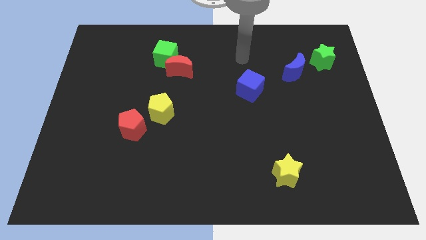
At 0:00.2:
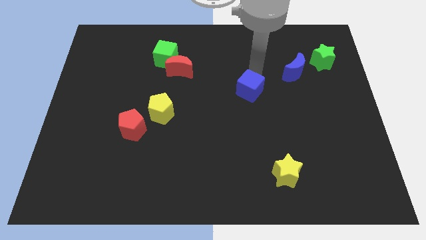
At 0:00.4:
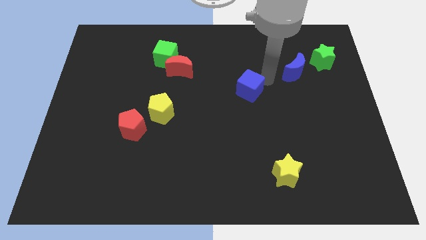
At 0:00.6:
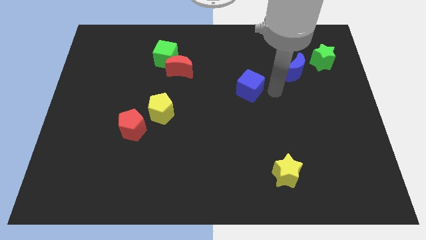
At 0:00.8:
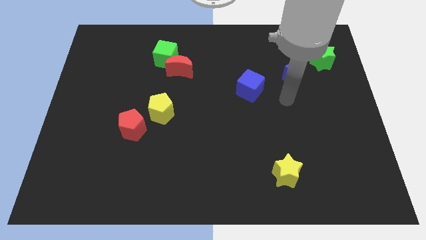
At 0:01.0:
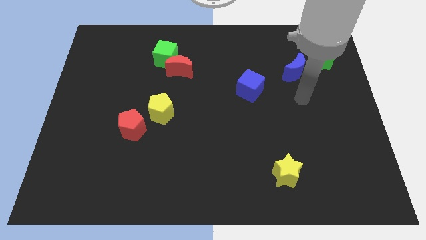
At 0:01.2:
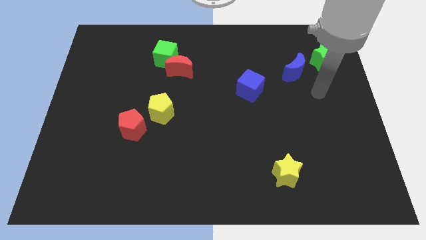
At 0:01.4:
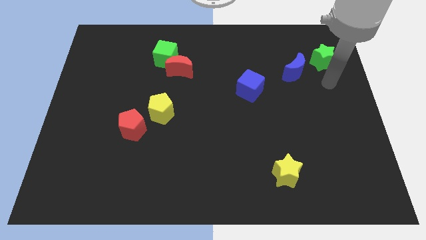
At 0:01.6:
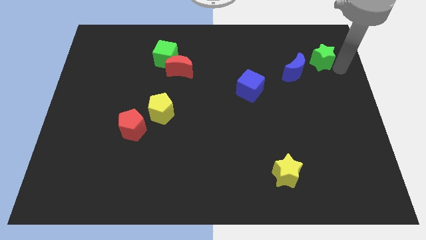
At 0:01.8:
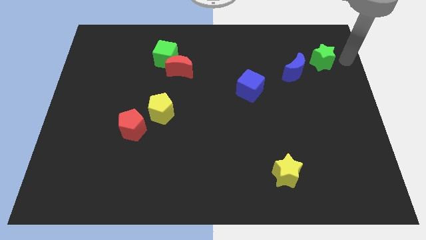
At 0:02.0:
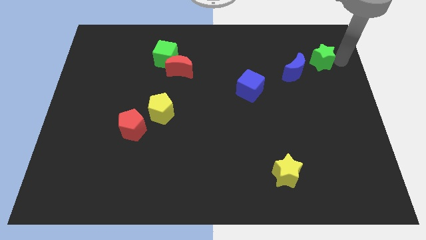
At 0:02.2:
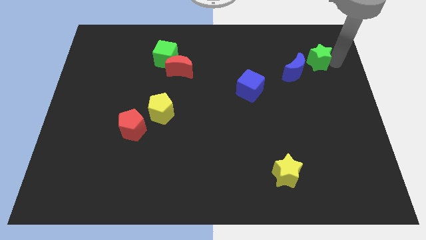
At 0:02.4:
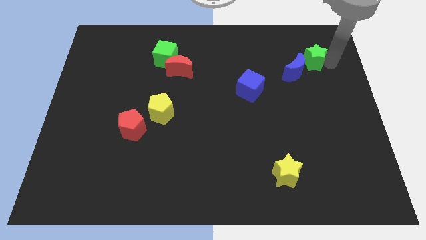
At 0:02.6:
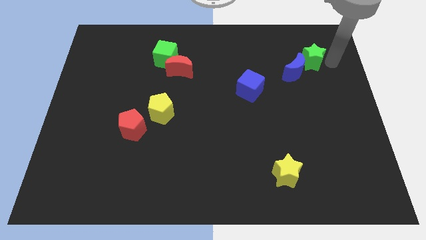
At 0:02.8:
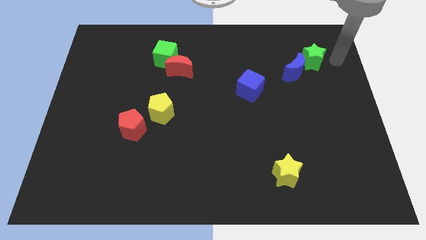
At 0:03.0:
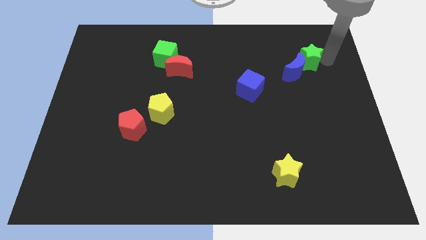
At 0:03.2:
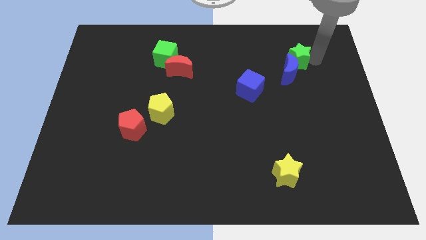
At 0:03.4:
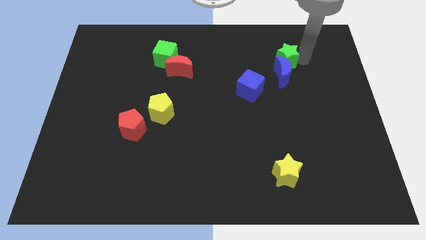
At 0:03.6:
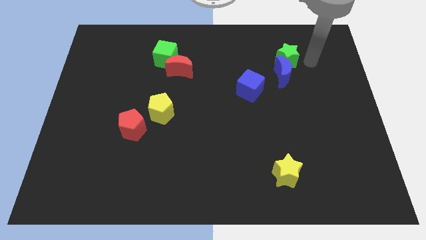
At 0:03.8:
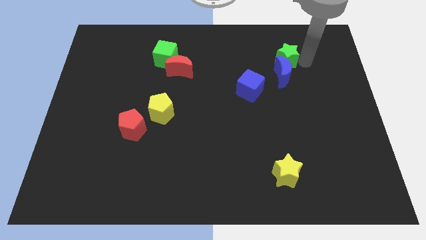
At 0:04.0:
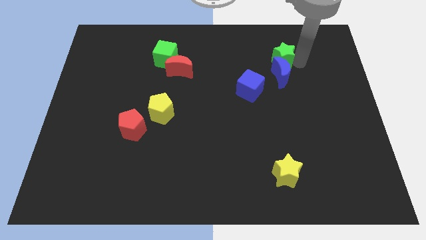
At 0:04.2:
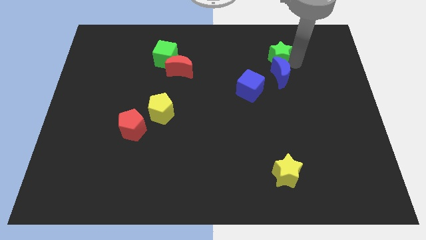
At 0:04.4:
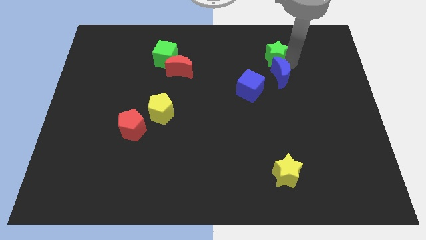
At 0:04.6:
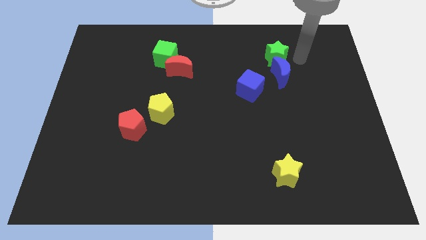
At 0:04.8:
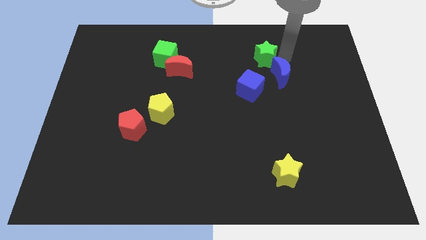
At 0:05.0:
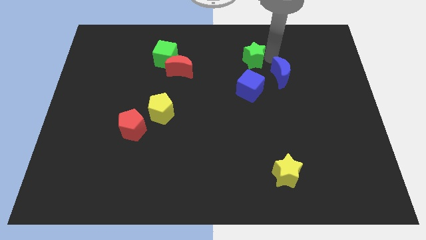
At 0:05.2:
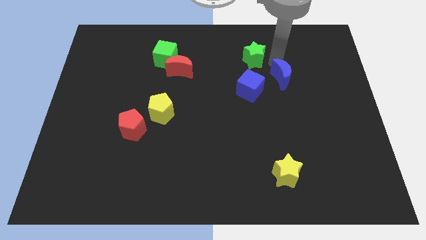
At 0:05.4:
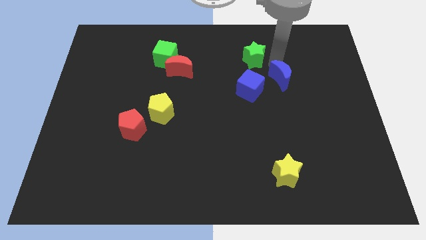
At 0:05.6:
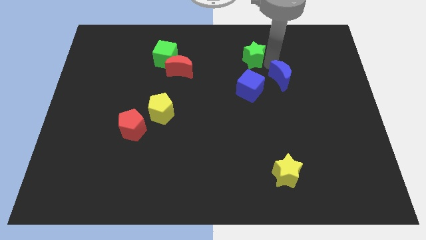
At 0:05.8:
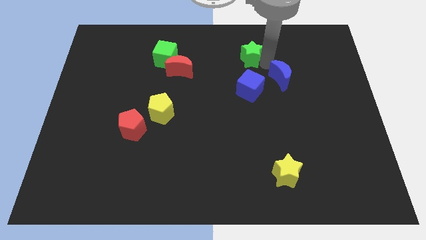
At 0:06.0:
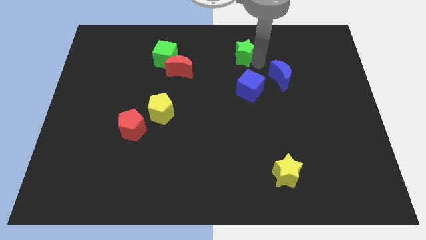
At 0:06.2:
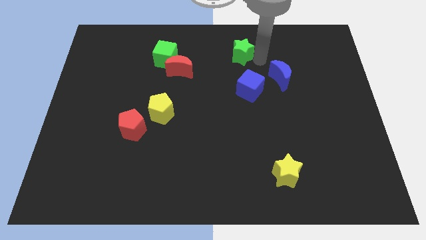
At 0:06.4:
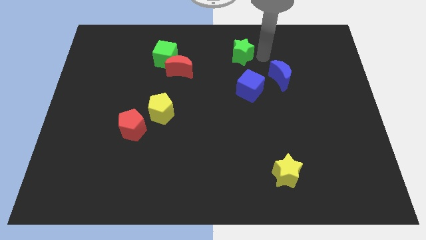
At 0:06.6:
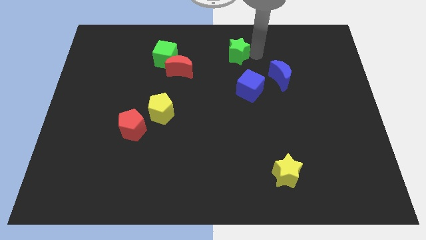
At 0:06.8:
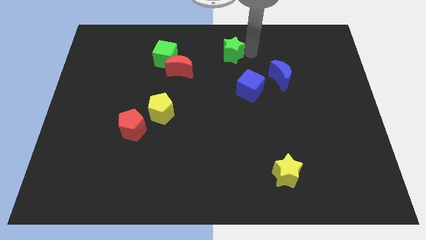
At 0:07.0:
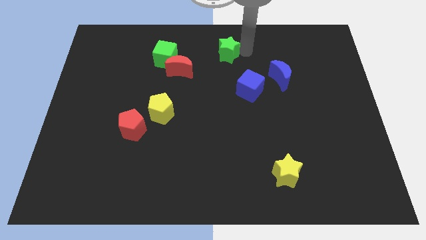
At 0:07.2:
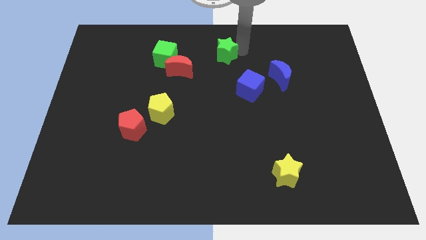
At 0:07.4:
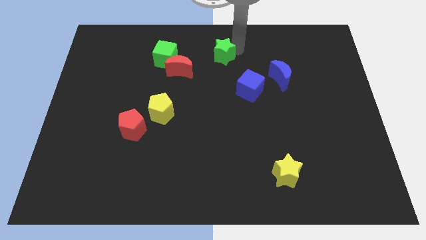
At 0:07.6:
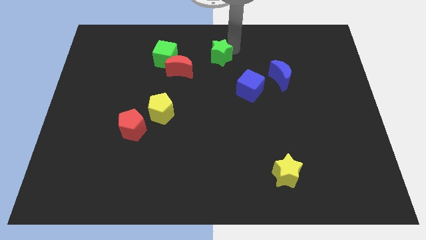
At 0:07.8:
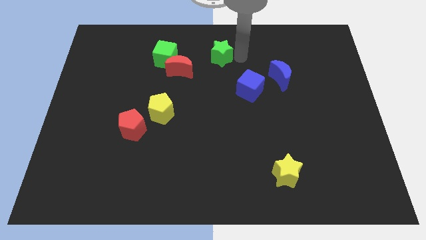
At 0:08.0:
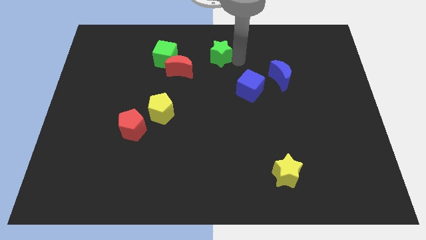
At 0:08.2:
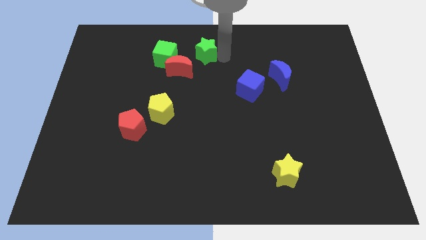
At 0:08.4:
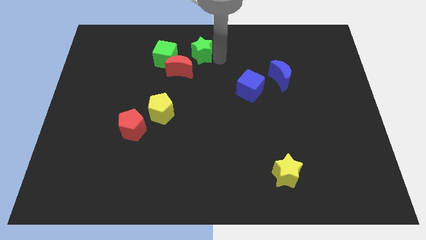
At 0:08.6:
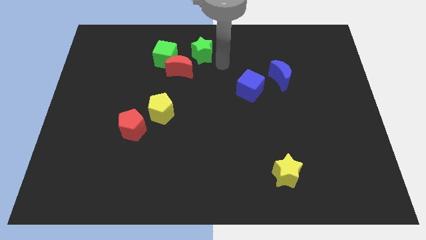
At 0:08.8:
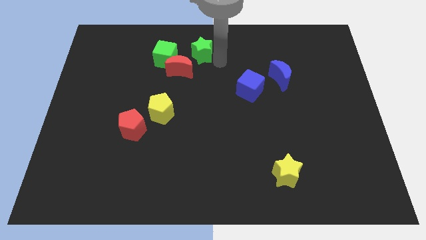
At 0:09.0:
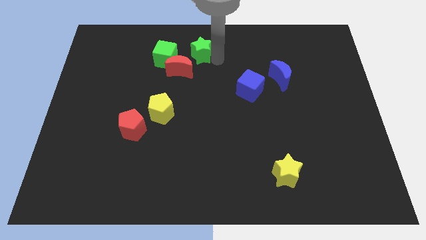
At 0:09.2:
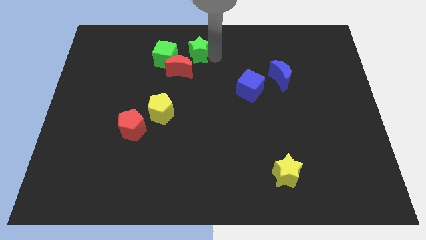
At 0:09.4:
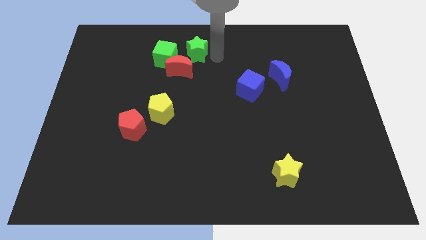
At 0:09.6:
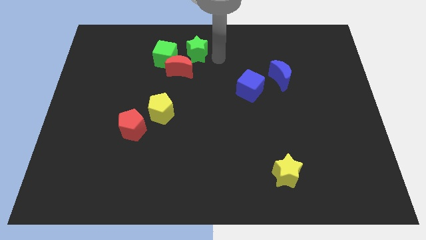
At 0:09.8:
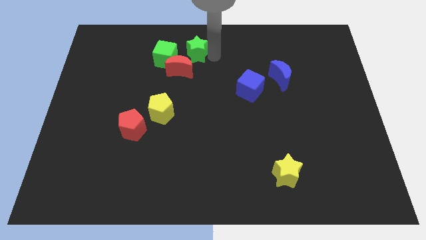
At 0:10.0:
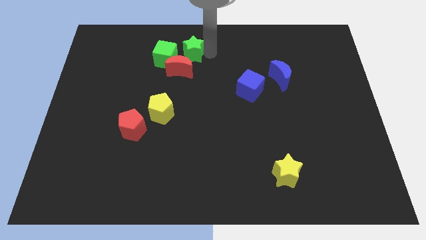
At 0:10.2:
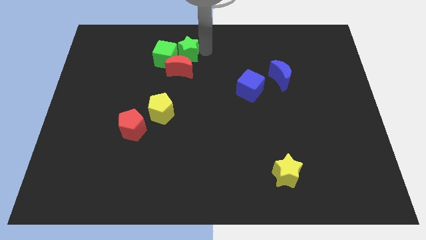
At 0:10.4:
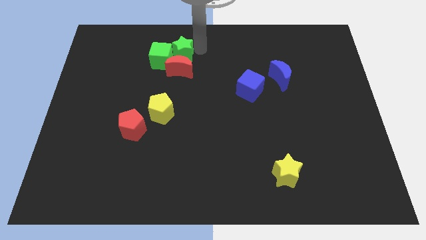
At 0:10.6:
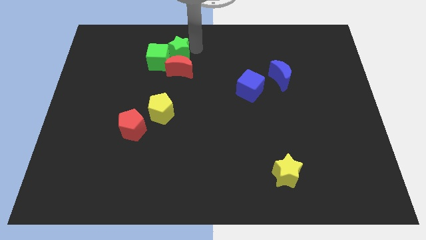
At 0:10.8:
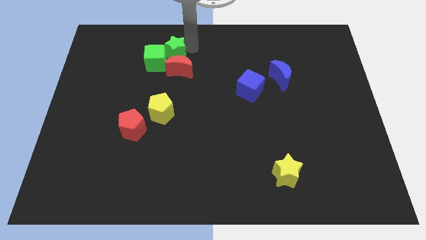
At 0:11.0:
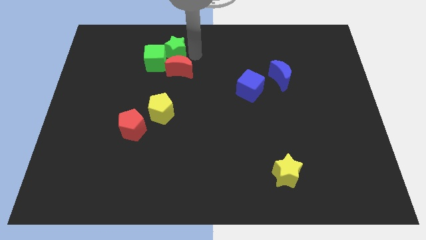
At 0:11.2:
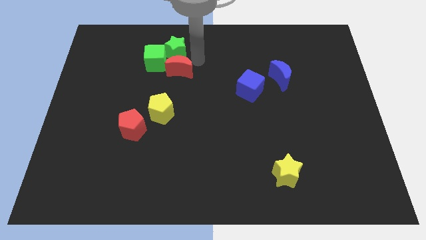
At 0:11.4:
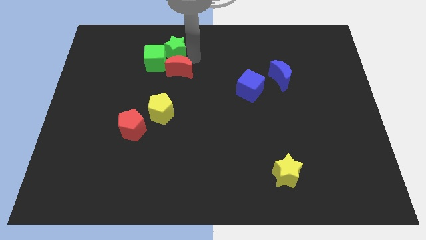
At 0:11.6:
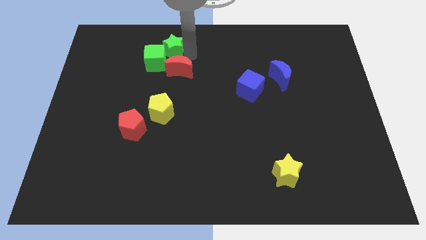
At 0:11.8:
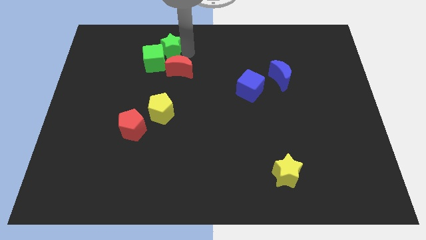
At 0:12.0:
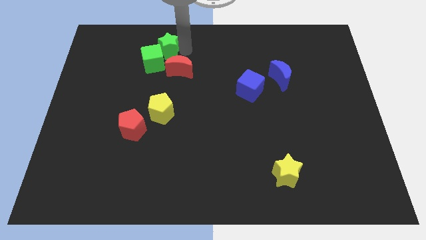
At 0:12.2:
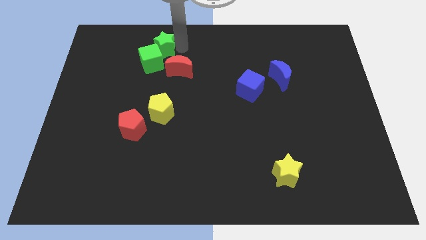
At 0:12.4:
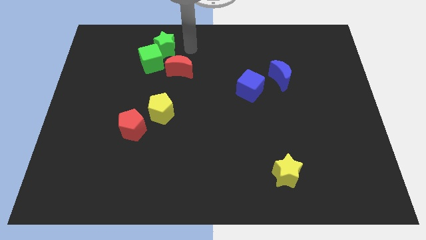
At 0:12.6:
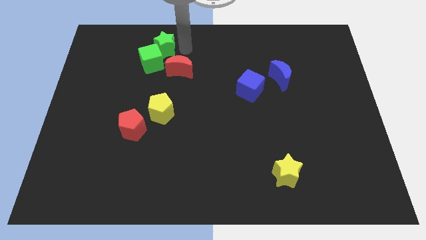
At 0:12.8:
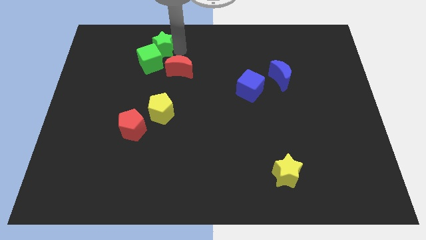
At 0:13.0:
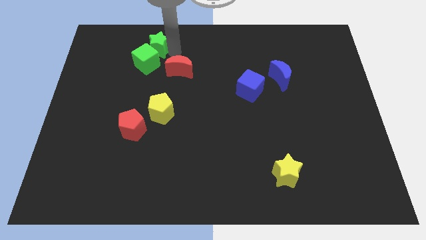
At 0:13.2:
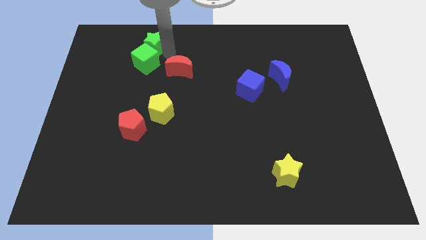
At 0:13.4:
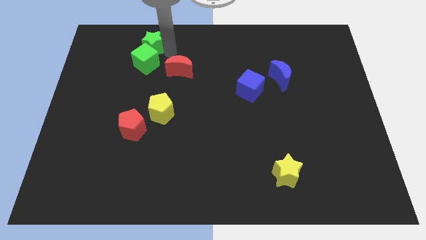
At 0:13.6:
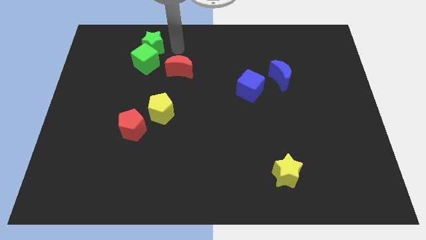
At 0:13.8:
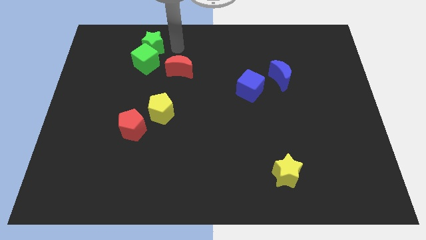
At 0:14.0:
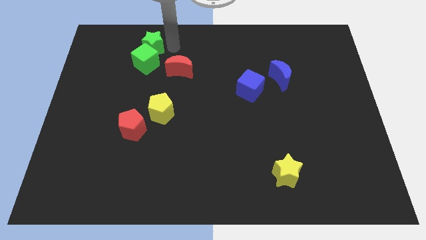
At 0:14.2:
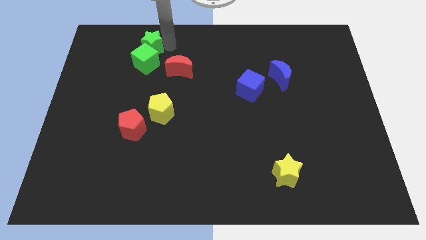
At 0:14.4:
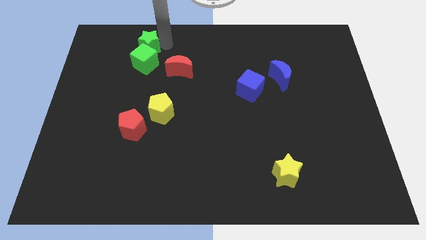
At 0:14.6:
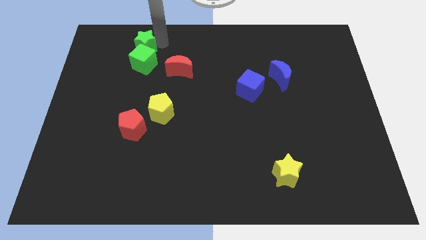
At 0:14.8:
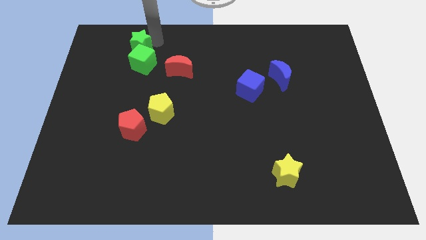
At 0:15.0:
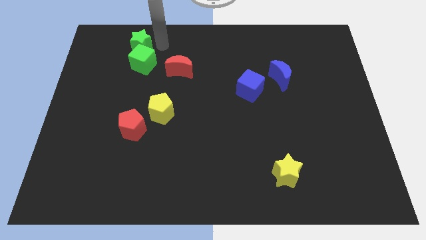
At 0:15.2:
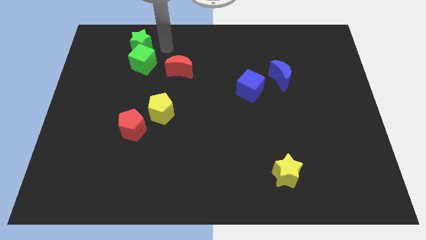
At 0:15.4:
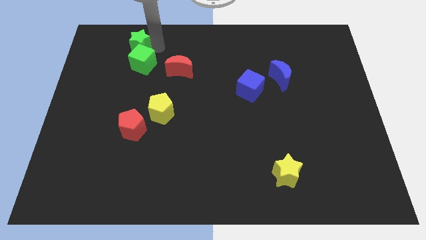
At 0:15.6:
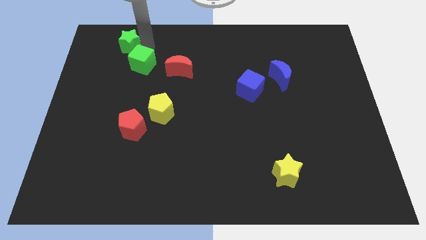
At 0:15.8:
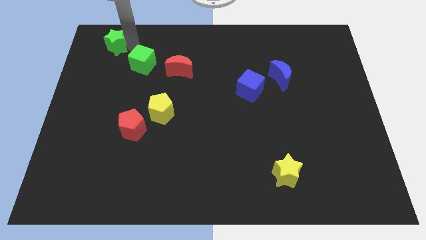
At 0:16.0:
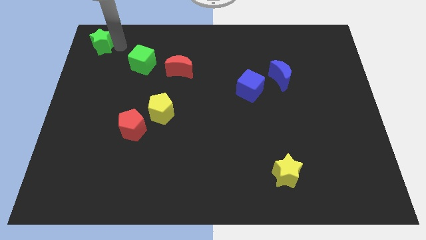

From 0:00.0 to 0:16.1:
move the green star to the upper left corner
